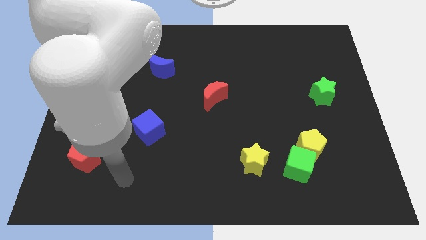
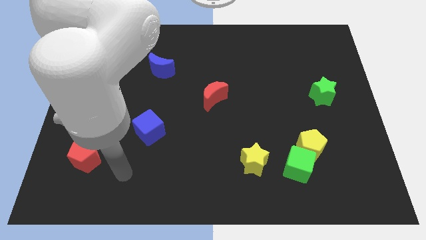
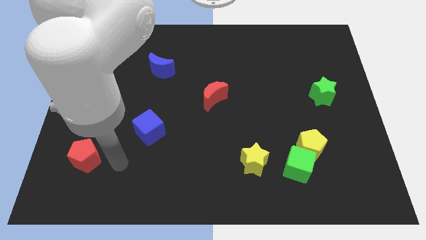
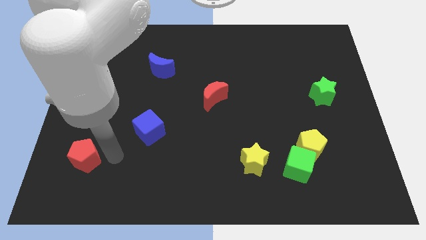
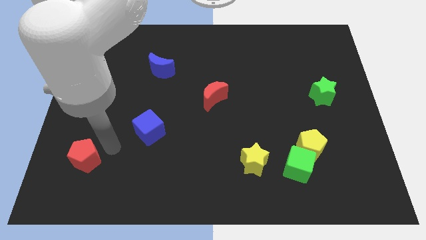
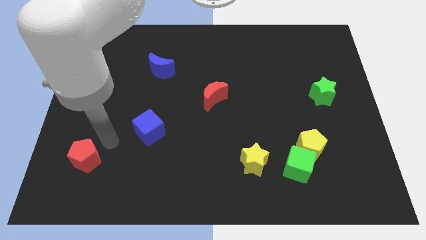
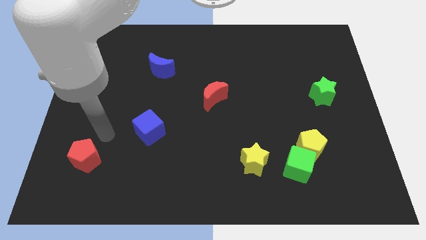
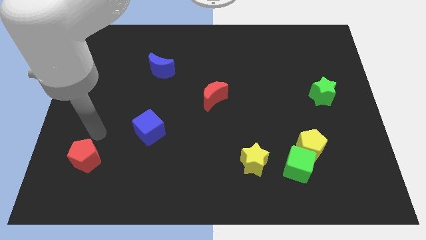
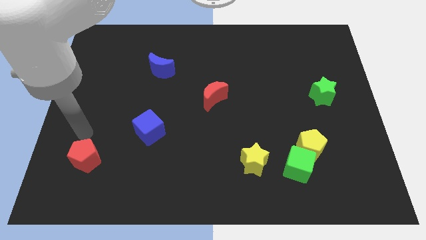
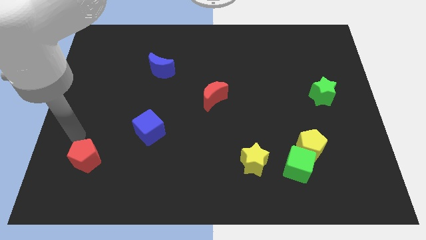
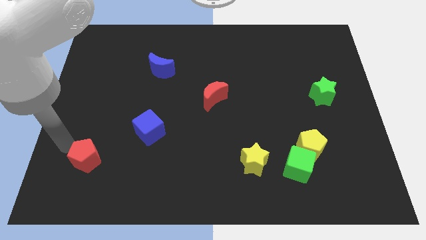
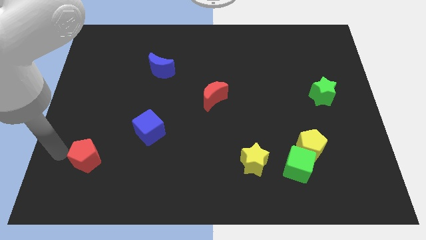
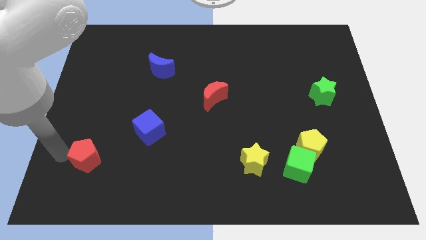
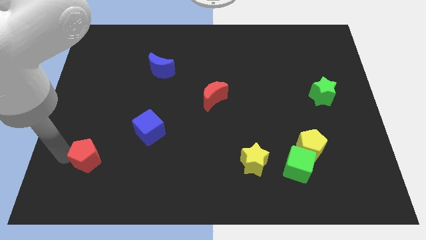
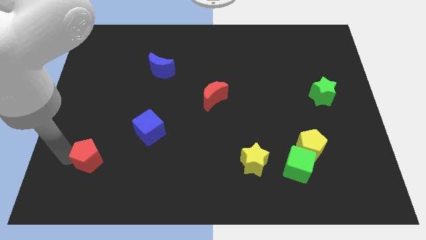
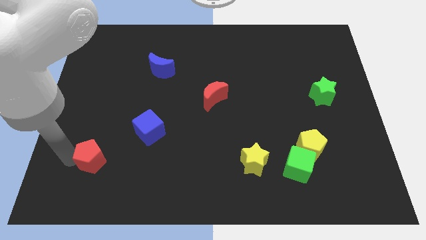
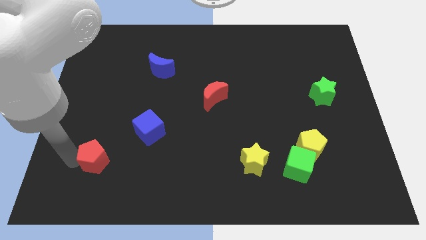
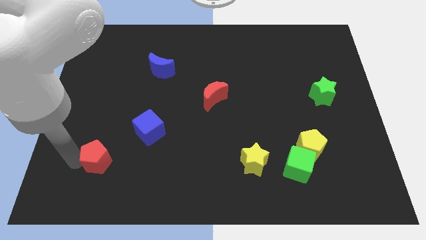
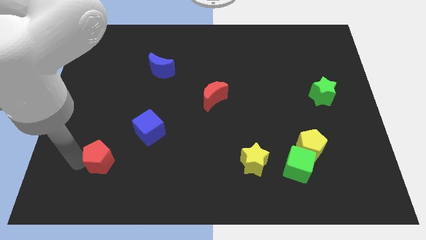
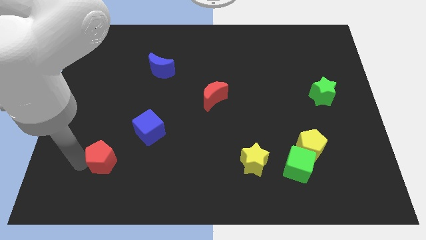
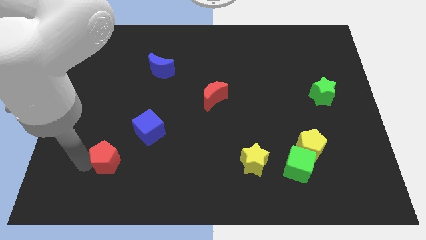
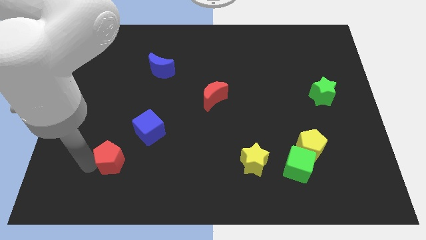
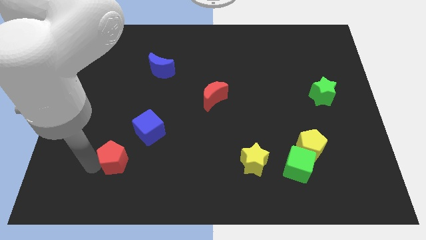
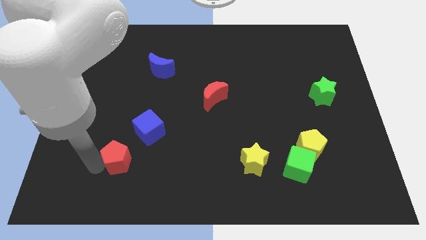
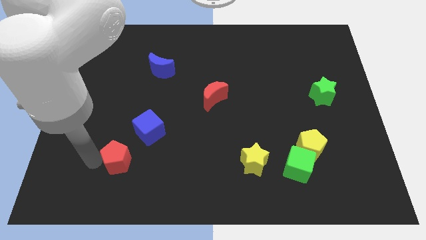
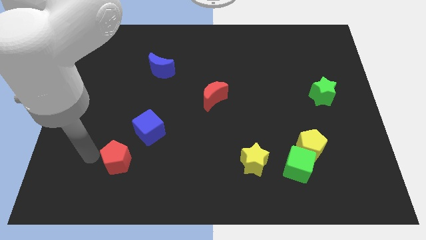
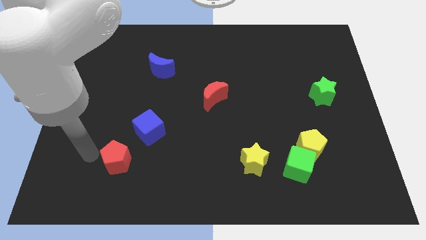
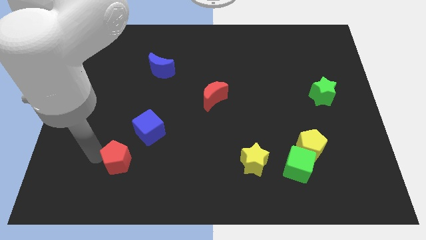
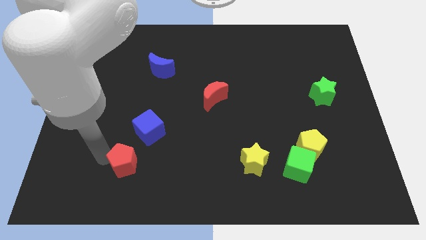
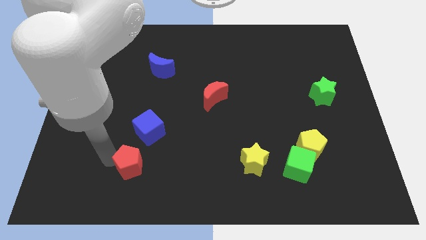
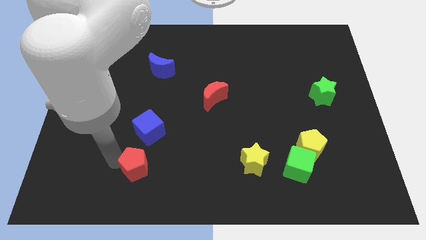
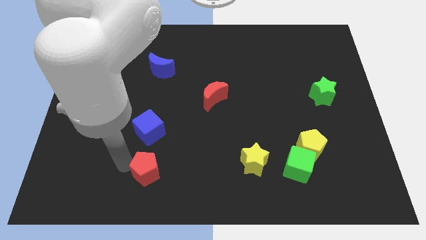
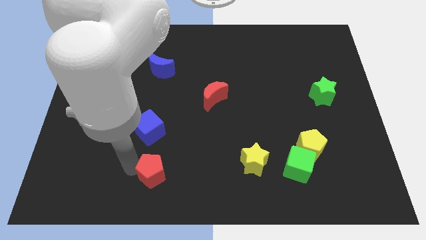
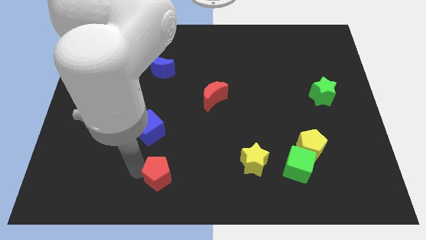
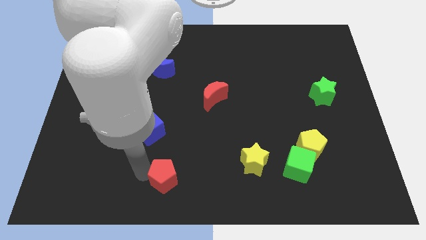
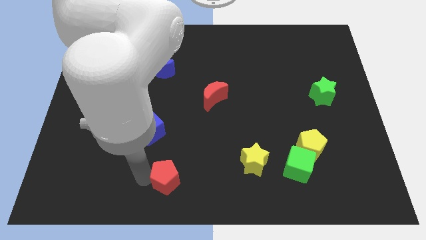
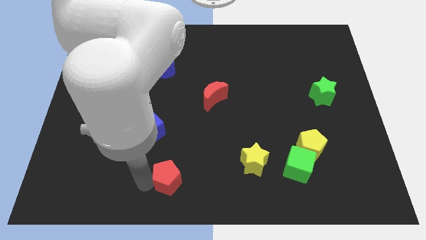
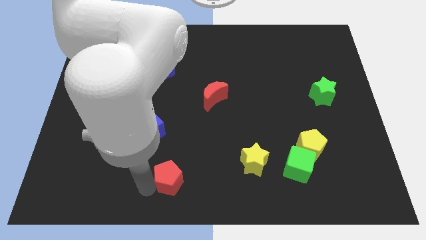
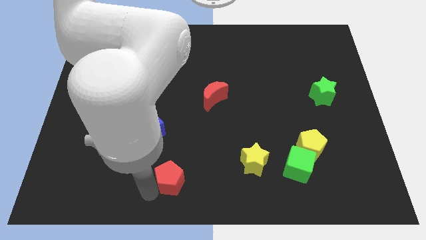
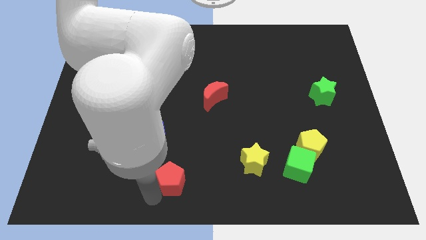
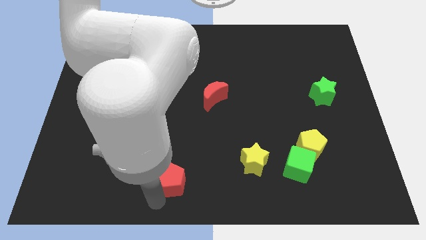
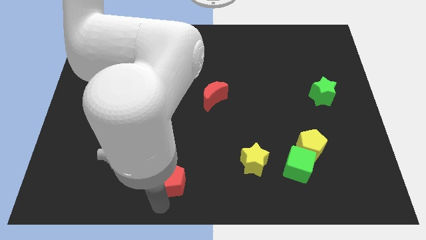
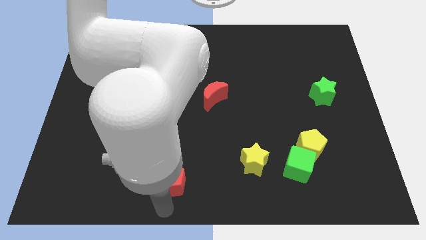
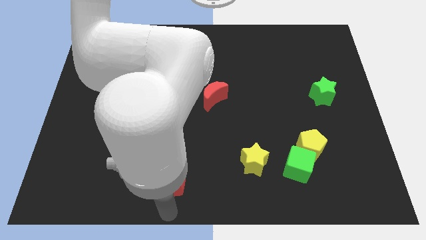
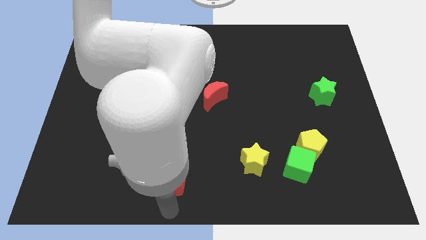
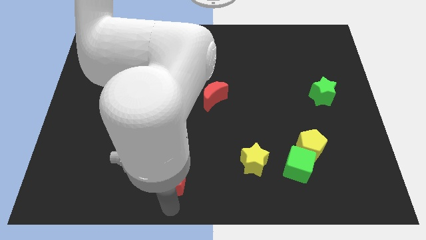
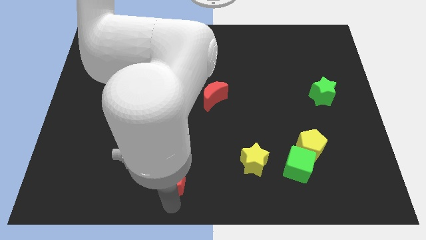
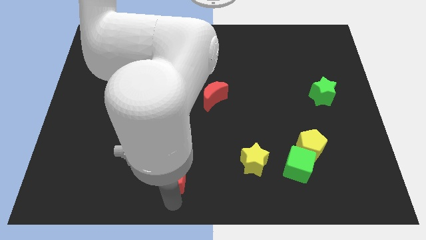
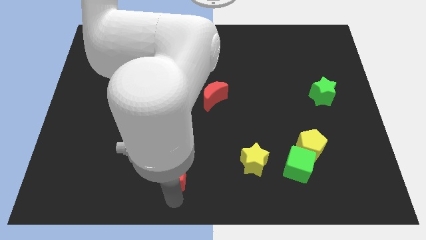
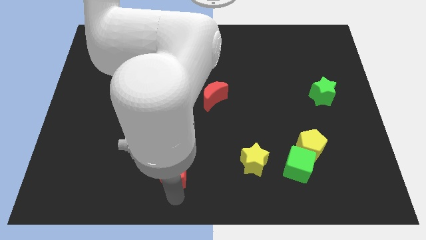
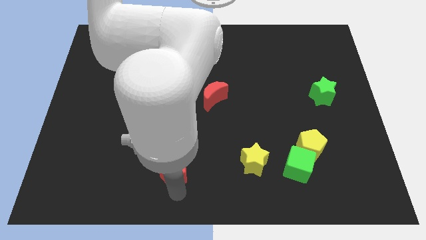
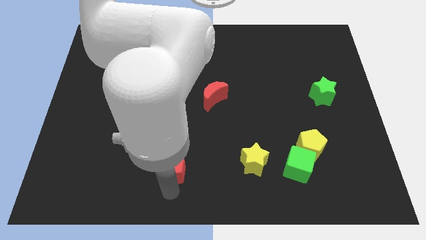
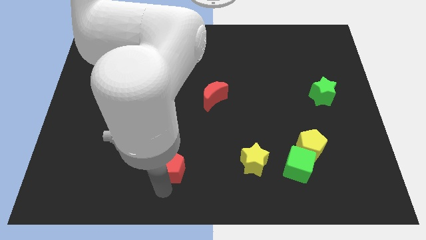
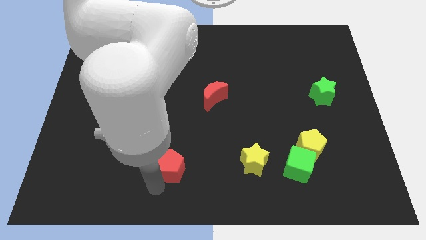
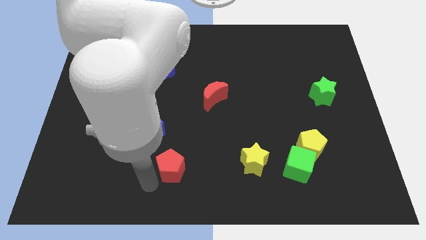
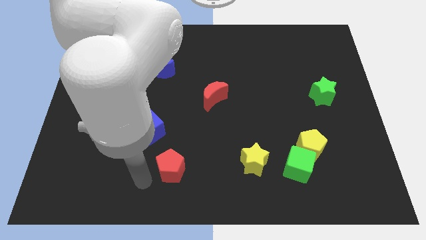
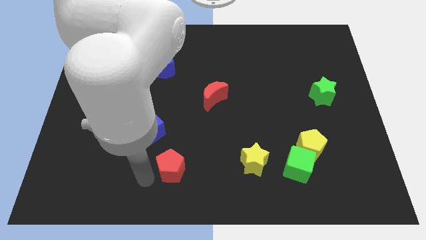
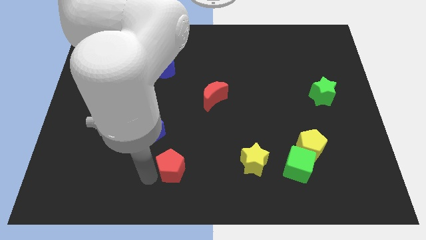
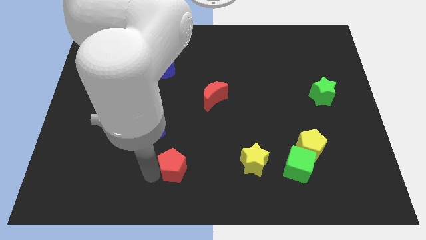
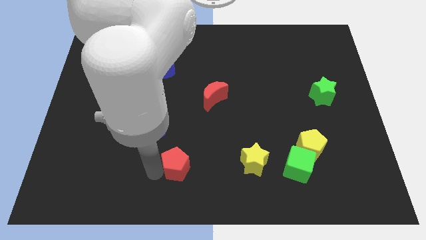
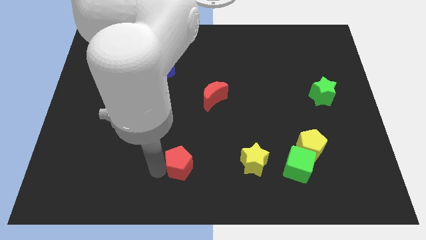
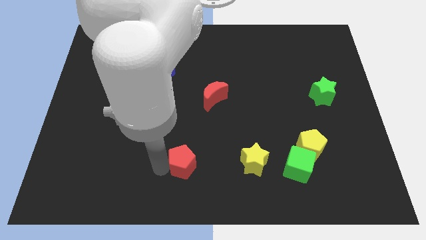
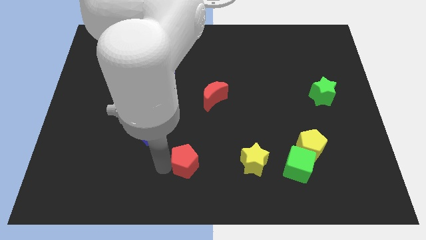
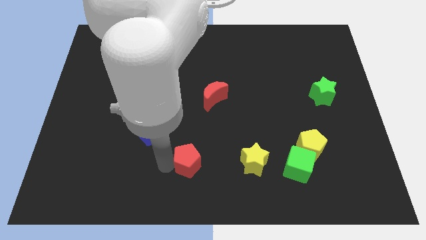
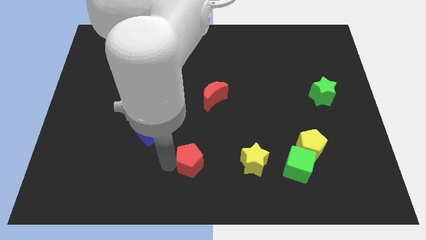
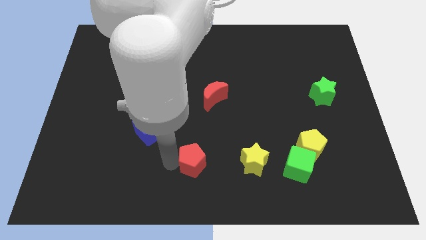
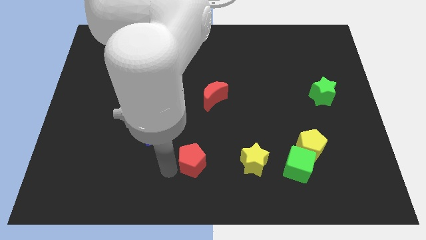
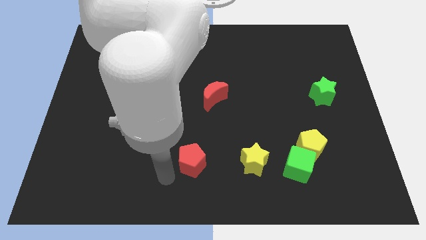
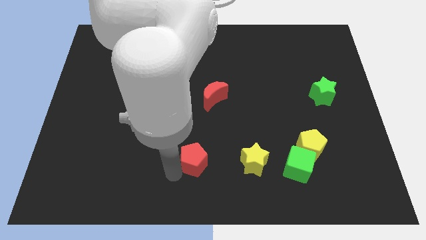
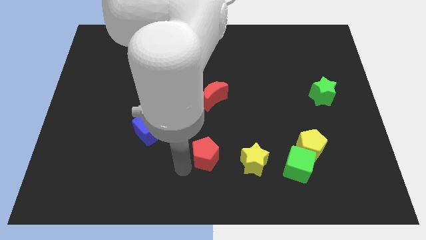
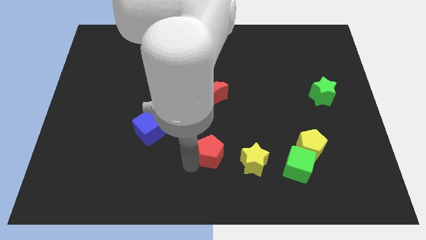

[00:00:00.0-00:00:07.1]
slide the red pentagon diagonally up and to the left of the yellow star
